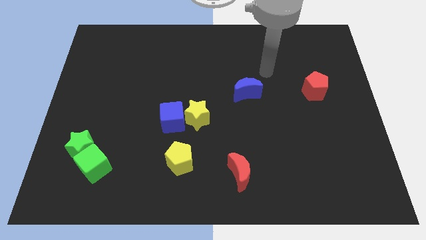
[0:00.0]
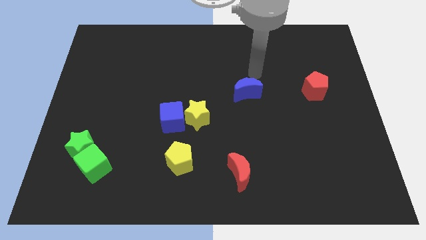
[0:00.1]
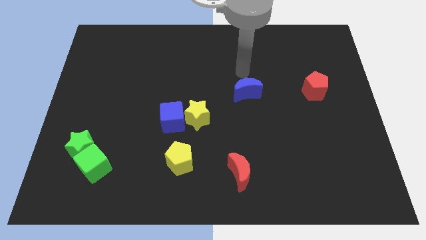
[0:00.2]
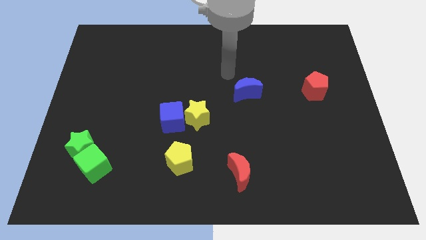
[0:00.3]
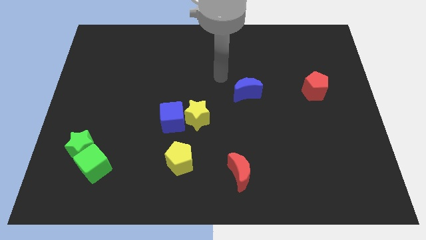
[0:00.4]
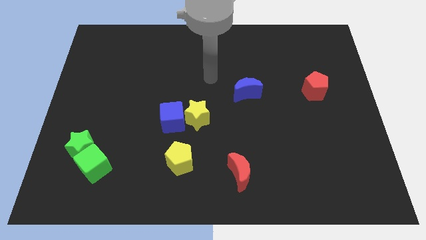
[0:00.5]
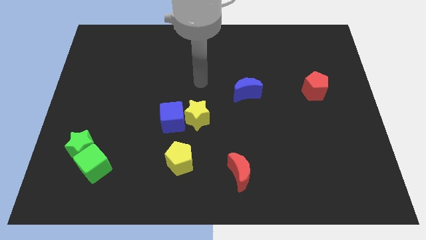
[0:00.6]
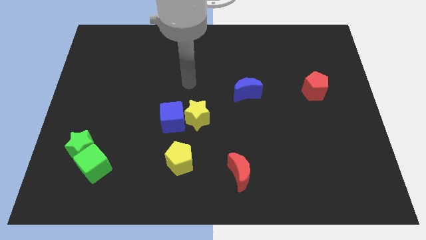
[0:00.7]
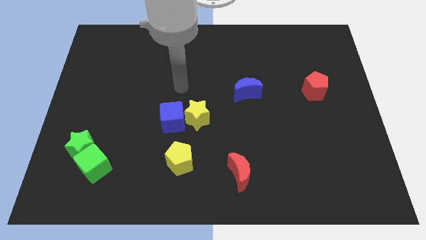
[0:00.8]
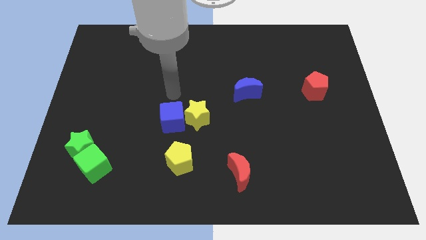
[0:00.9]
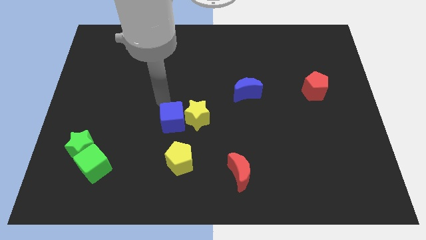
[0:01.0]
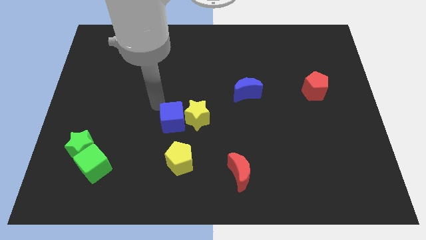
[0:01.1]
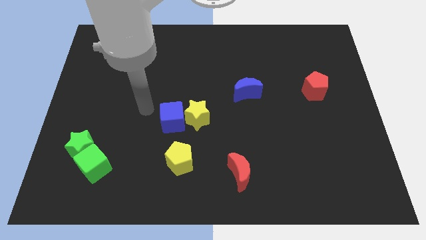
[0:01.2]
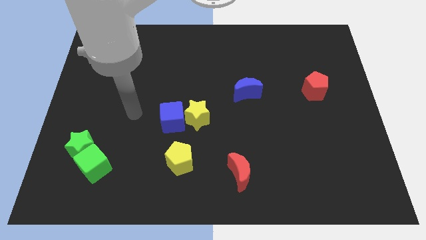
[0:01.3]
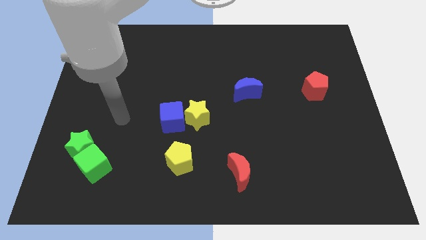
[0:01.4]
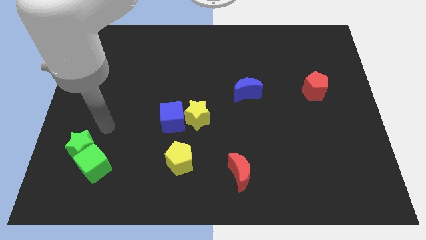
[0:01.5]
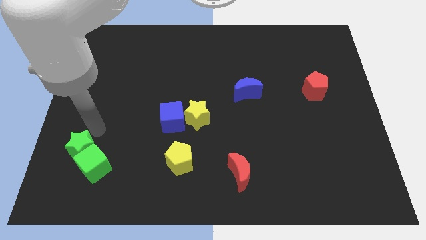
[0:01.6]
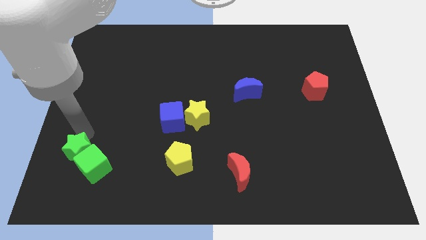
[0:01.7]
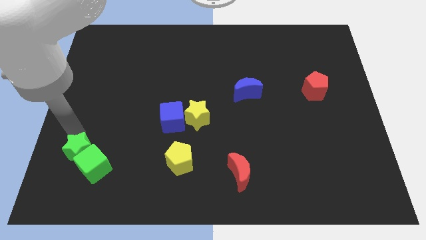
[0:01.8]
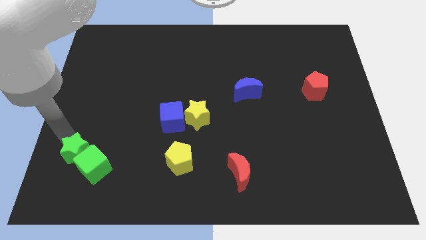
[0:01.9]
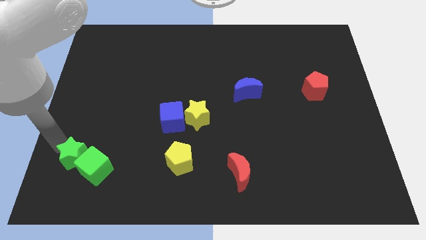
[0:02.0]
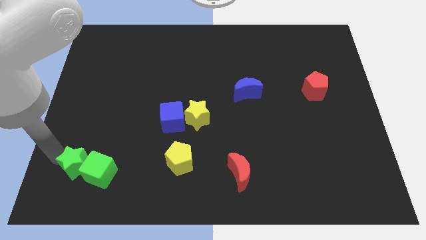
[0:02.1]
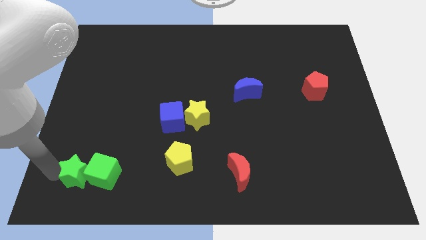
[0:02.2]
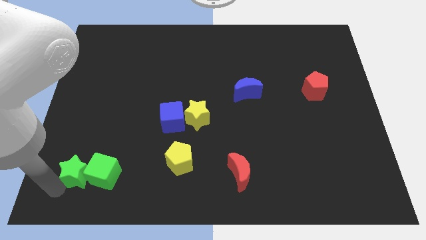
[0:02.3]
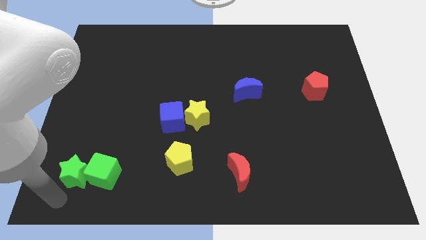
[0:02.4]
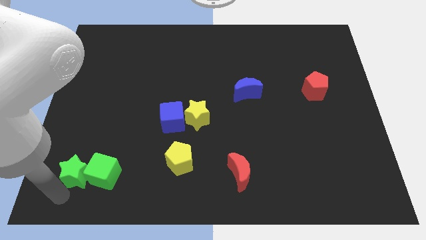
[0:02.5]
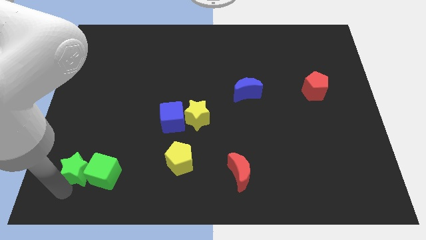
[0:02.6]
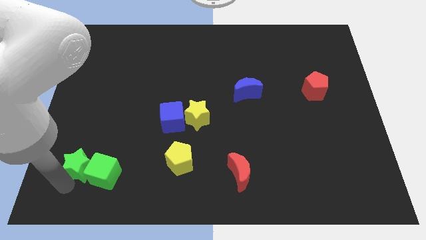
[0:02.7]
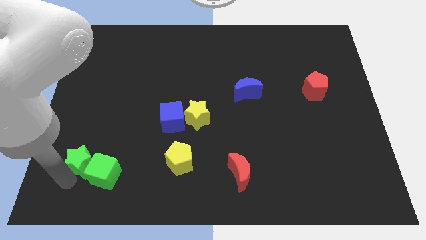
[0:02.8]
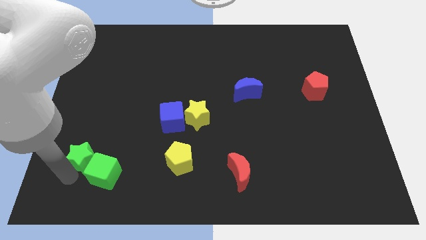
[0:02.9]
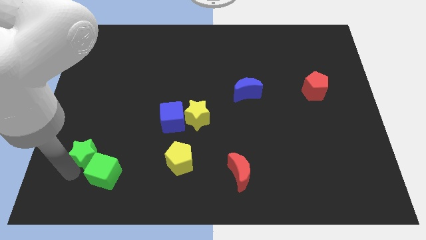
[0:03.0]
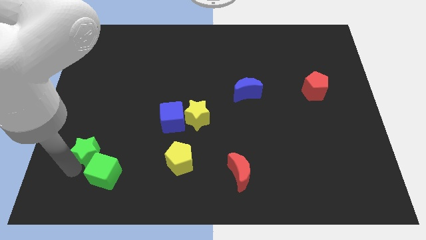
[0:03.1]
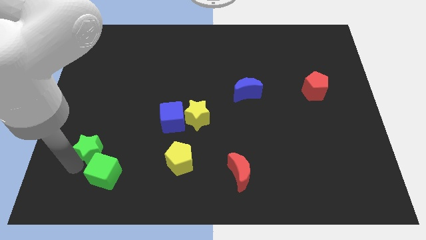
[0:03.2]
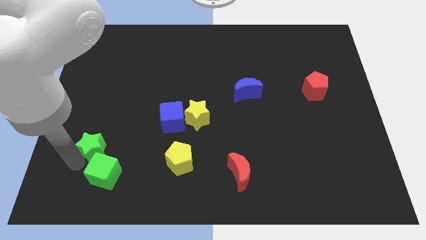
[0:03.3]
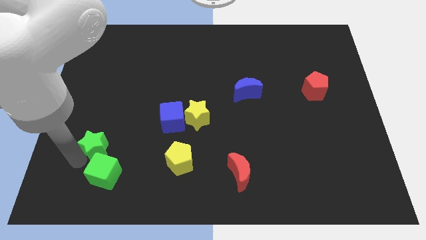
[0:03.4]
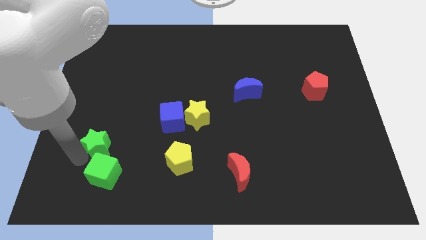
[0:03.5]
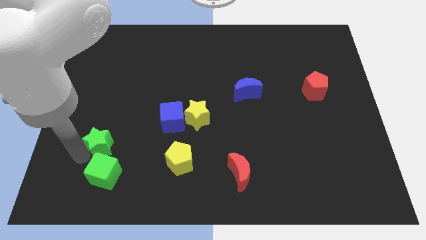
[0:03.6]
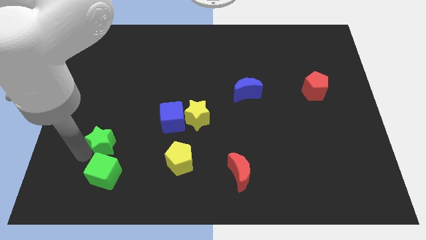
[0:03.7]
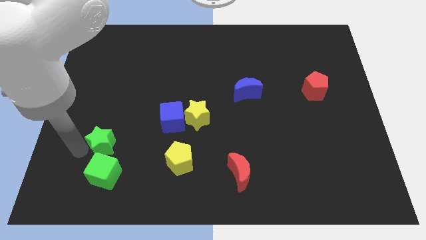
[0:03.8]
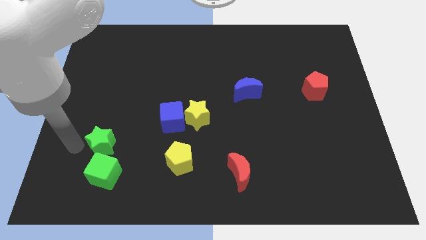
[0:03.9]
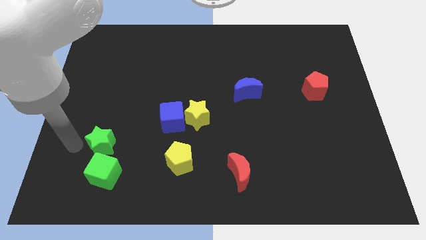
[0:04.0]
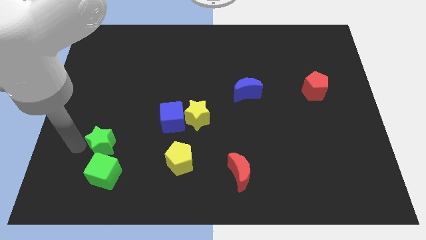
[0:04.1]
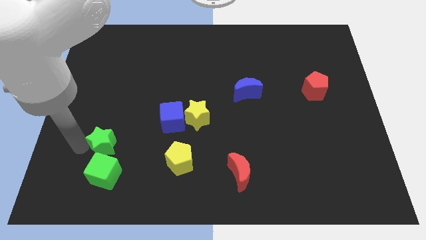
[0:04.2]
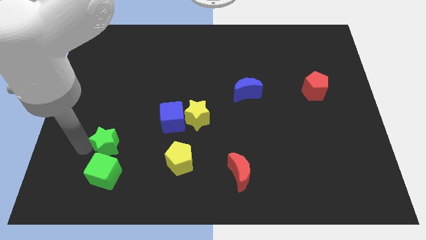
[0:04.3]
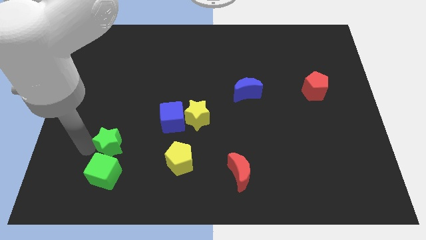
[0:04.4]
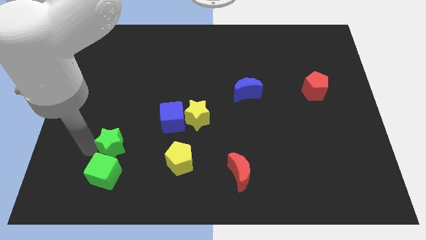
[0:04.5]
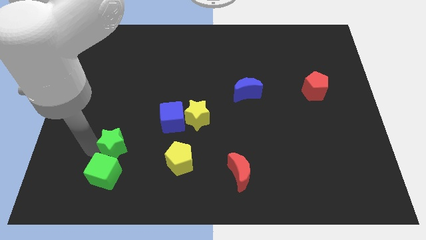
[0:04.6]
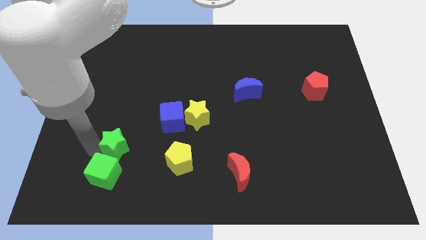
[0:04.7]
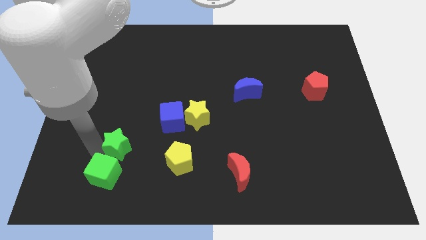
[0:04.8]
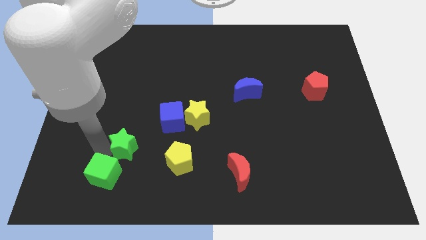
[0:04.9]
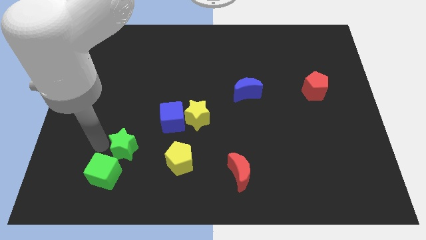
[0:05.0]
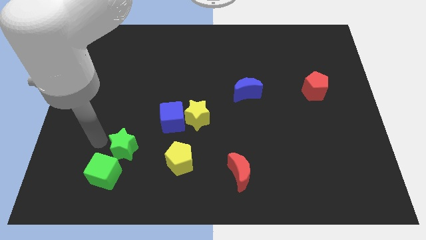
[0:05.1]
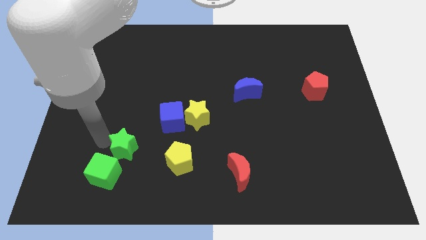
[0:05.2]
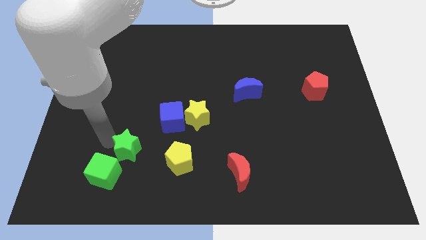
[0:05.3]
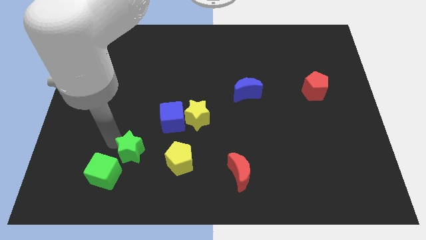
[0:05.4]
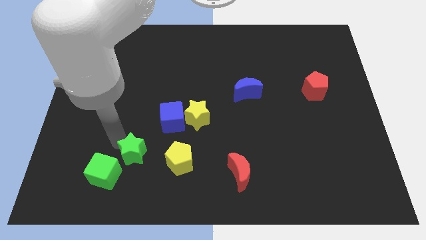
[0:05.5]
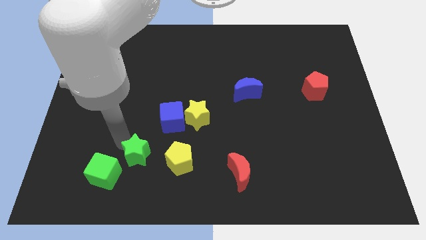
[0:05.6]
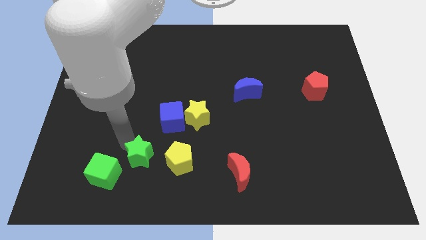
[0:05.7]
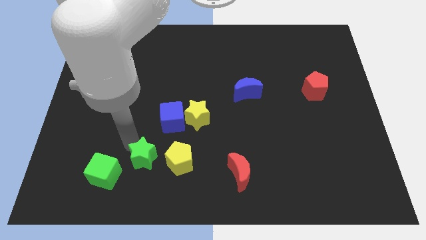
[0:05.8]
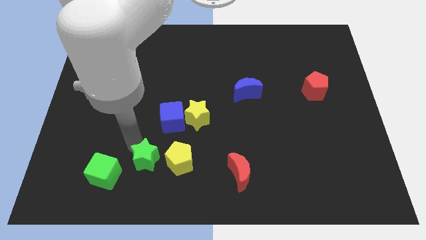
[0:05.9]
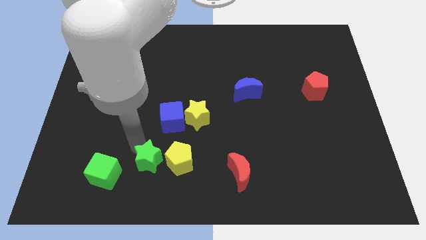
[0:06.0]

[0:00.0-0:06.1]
put the green star to the yellow pentagon

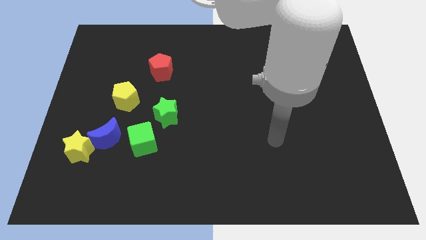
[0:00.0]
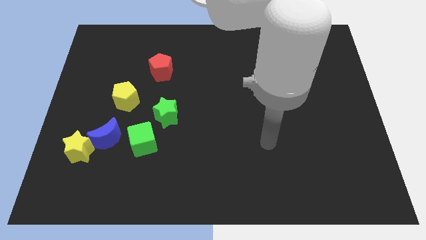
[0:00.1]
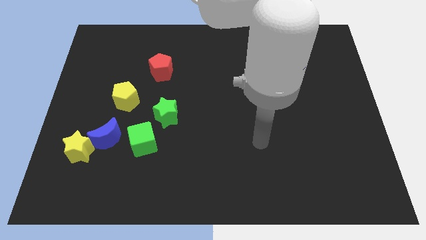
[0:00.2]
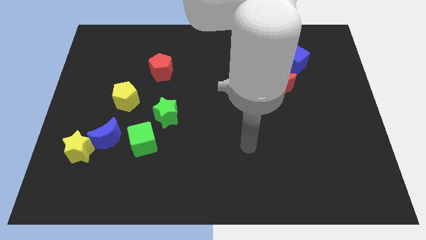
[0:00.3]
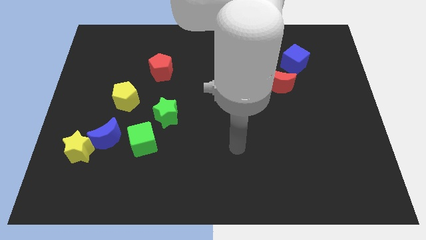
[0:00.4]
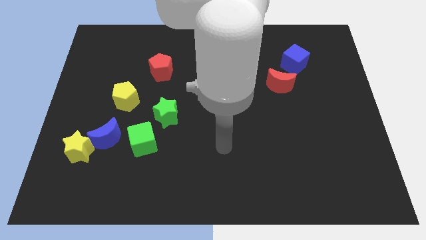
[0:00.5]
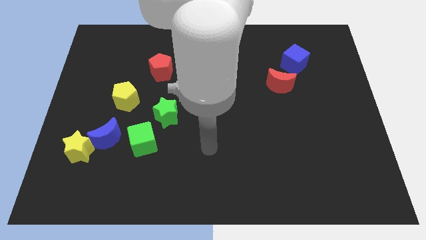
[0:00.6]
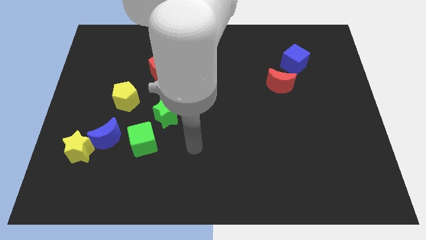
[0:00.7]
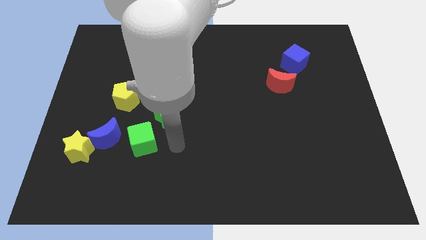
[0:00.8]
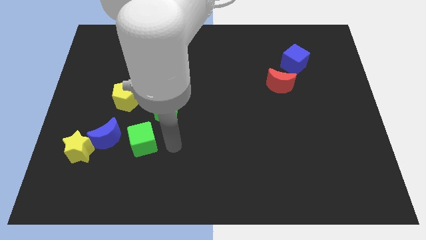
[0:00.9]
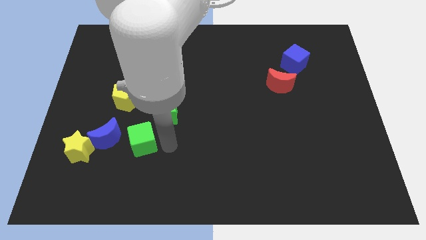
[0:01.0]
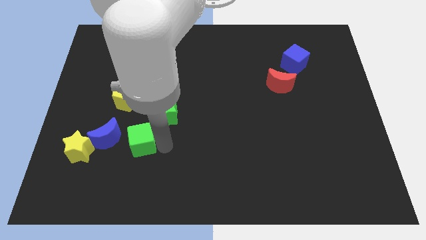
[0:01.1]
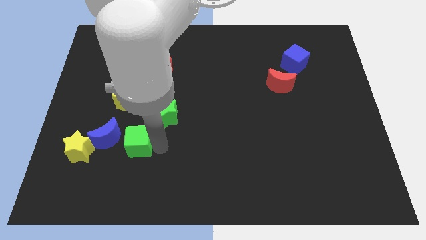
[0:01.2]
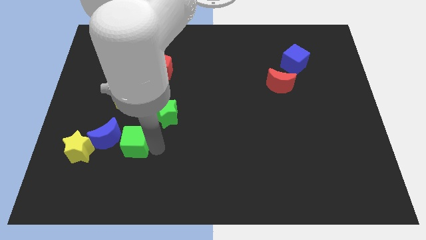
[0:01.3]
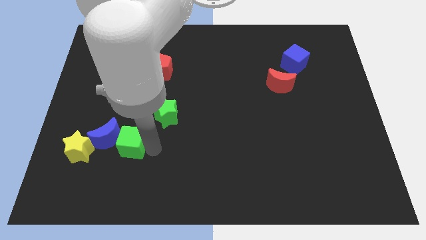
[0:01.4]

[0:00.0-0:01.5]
slide the green cube towards the blue moon
